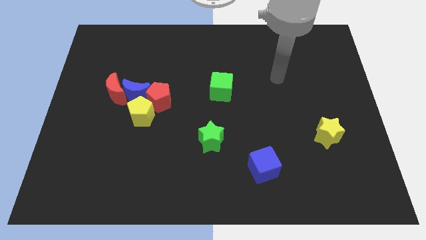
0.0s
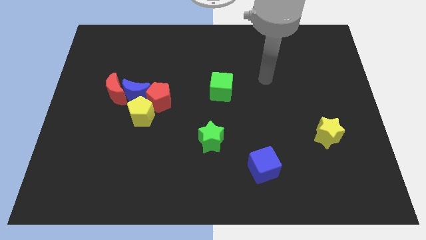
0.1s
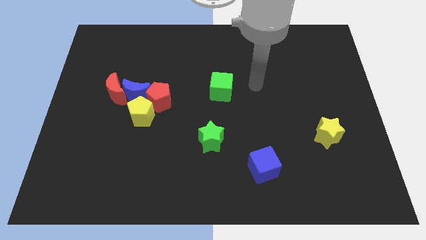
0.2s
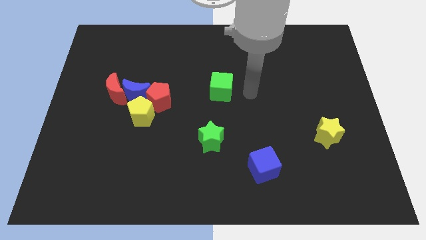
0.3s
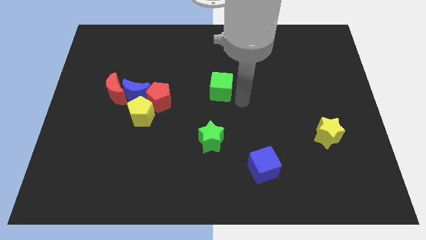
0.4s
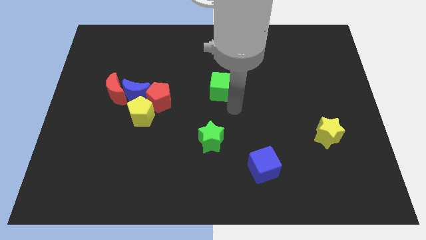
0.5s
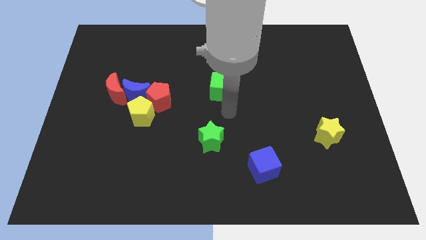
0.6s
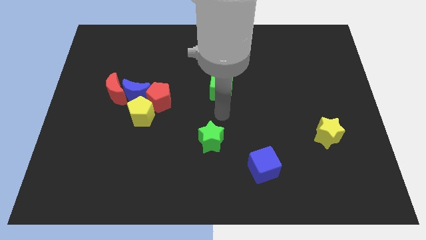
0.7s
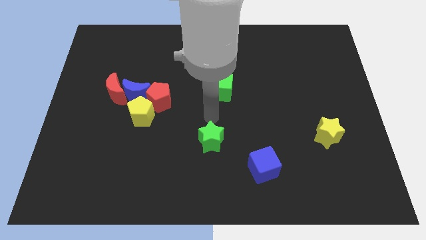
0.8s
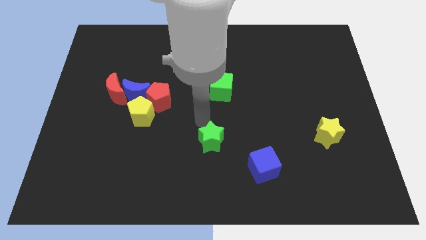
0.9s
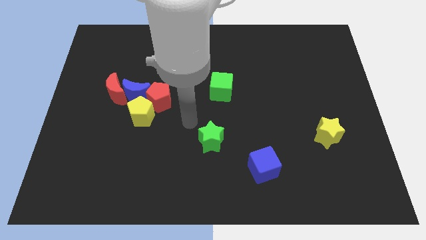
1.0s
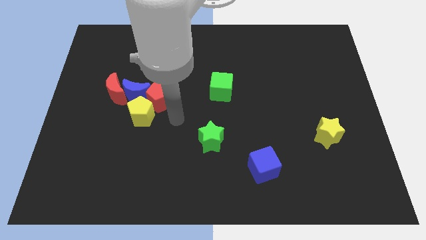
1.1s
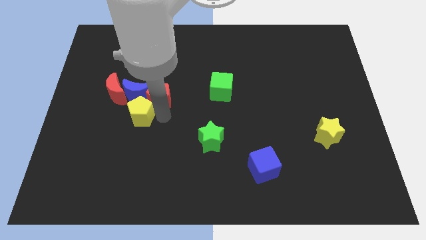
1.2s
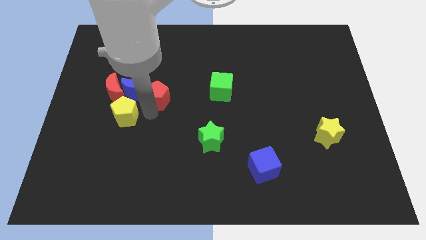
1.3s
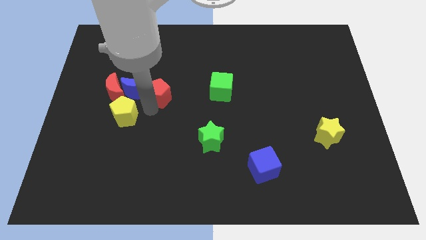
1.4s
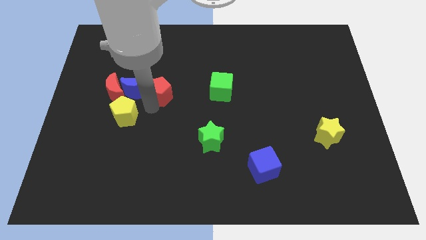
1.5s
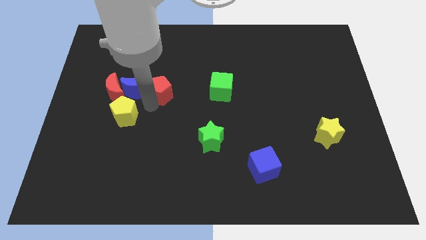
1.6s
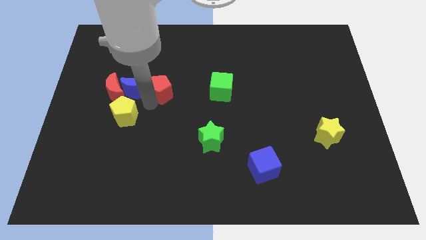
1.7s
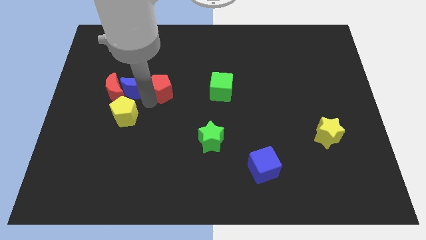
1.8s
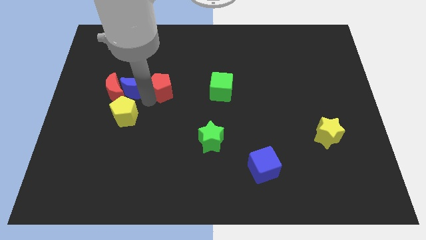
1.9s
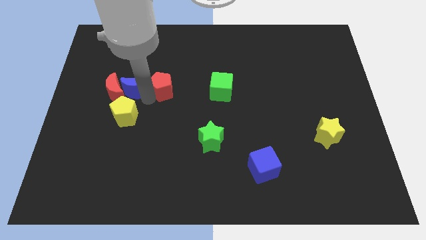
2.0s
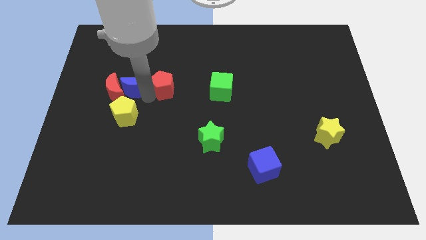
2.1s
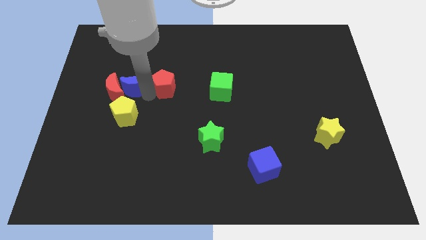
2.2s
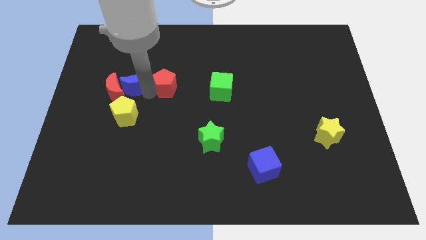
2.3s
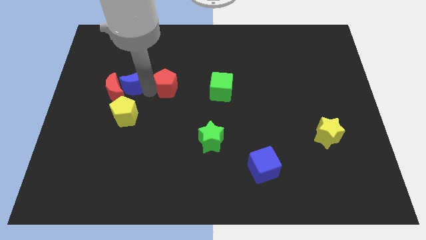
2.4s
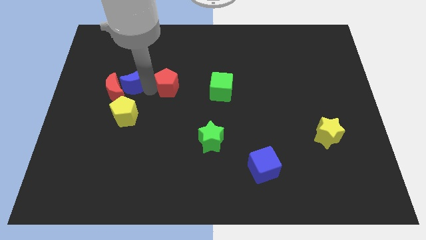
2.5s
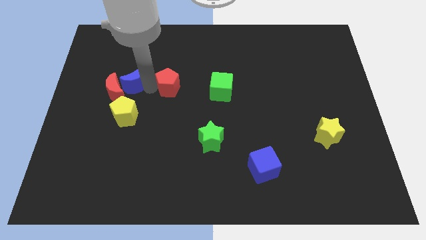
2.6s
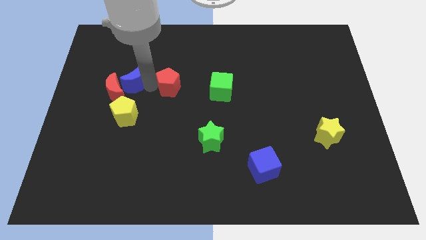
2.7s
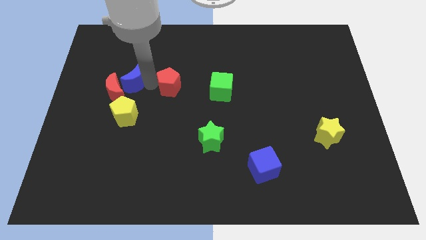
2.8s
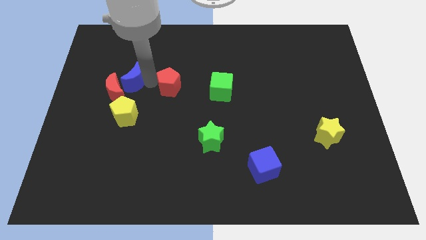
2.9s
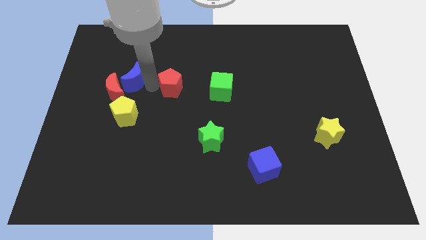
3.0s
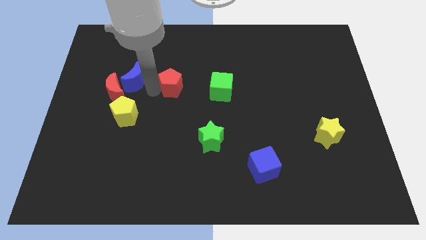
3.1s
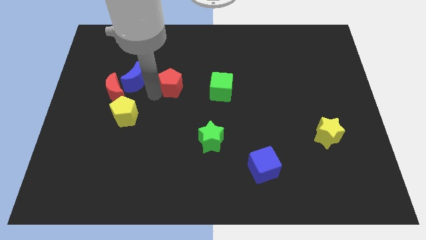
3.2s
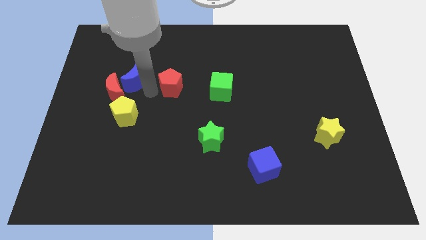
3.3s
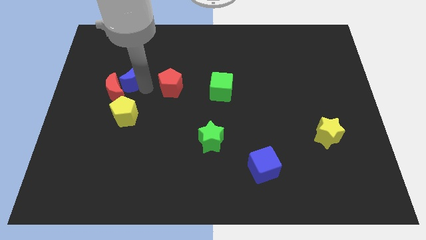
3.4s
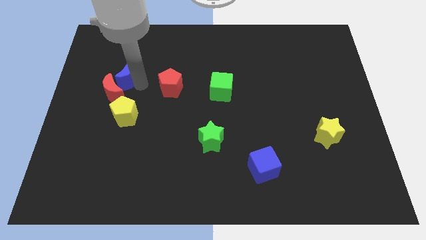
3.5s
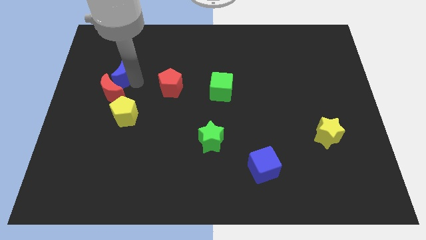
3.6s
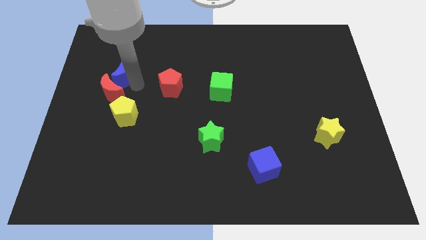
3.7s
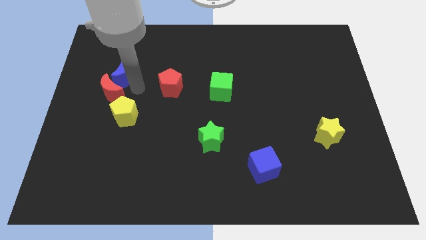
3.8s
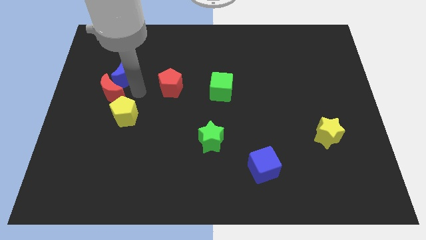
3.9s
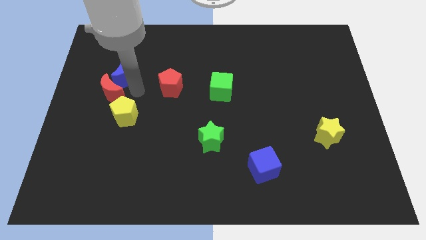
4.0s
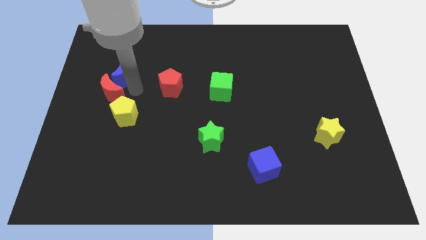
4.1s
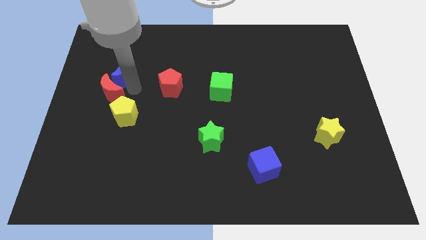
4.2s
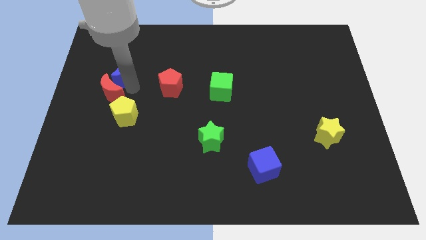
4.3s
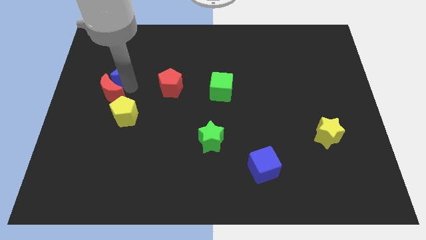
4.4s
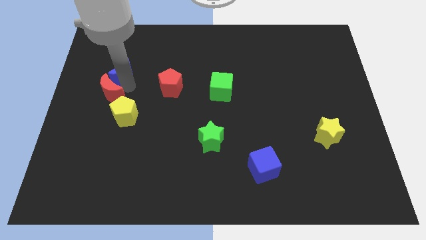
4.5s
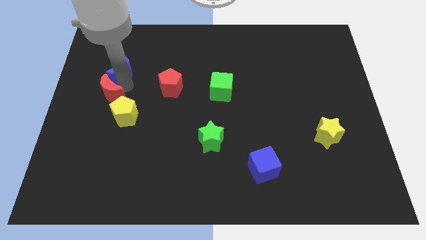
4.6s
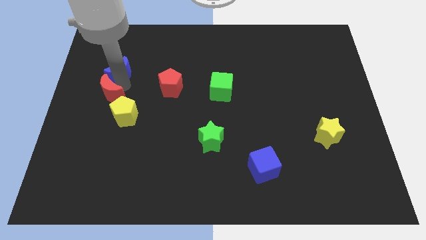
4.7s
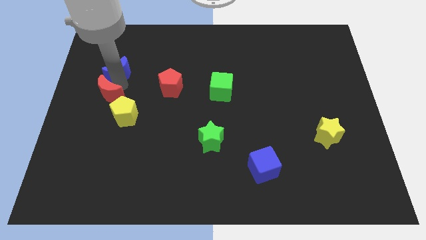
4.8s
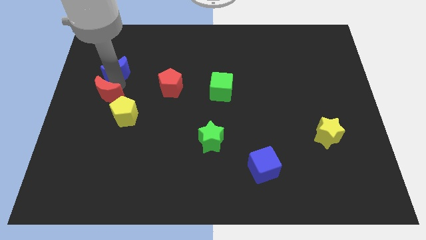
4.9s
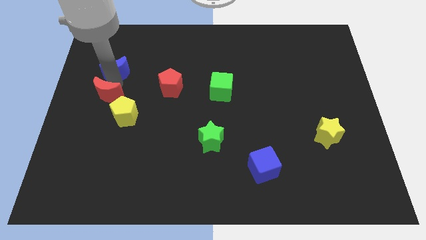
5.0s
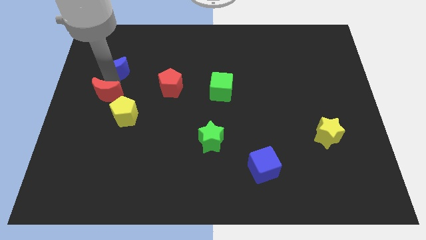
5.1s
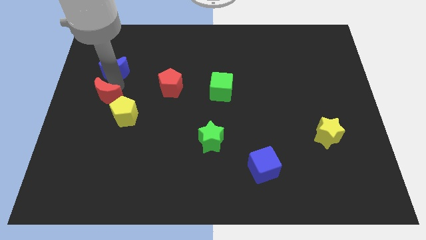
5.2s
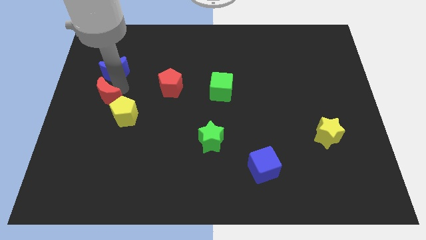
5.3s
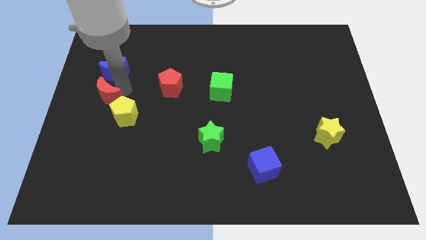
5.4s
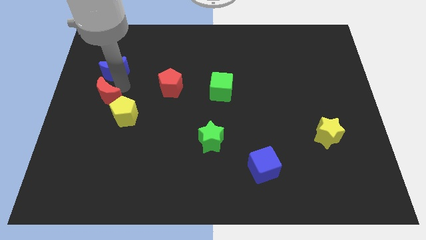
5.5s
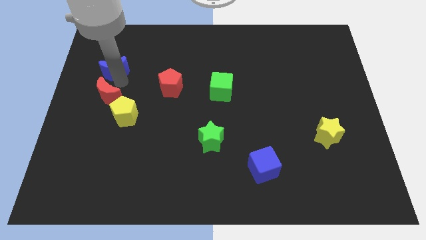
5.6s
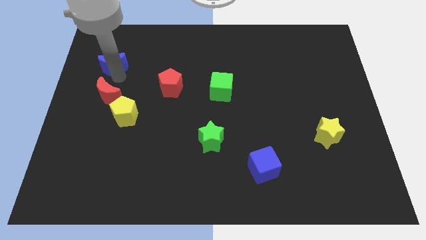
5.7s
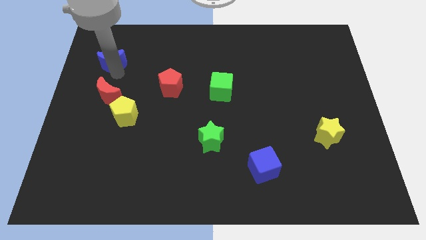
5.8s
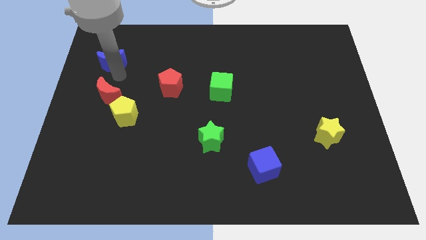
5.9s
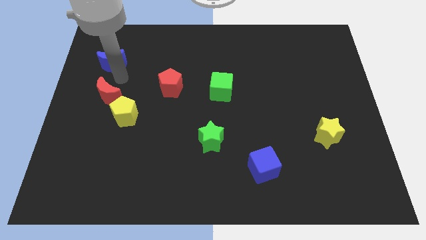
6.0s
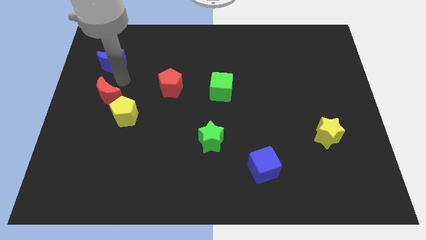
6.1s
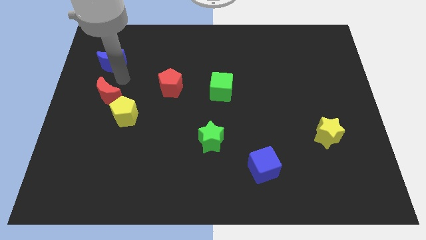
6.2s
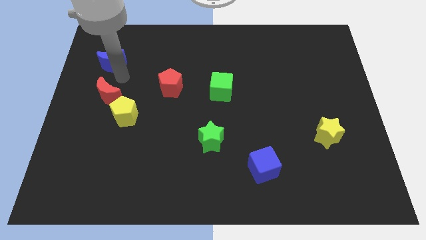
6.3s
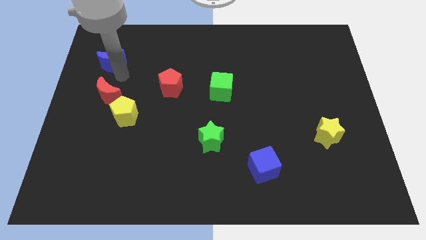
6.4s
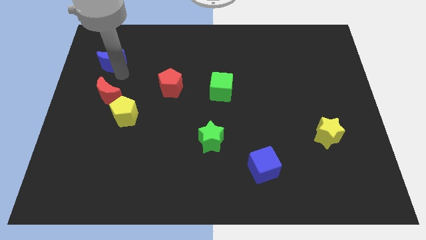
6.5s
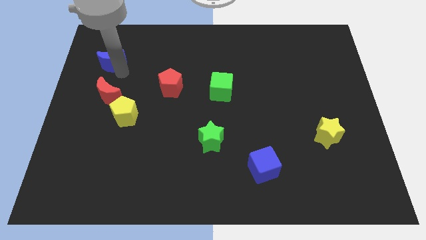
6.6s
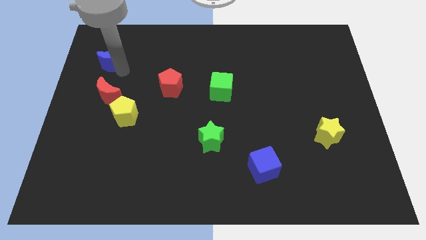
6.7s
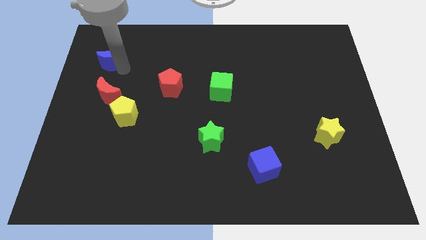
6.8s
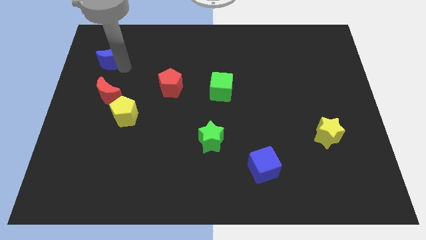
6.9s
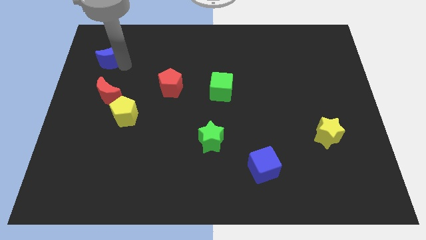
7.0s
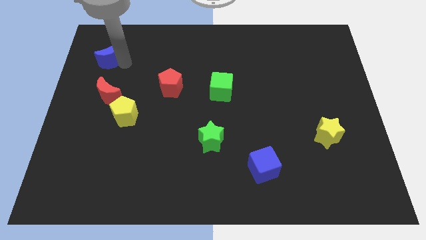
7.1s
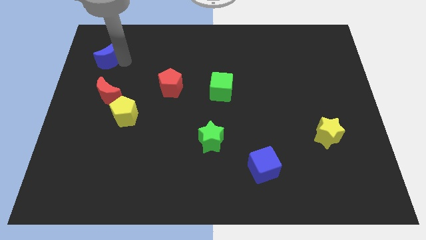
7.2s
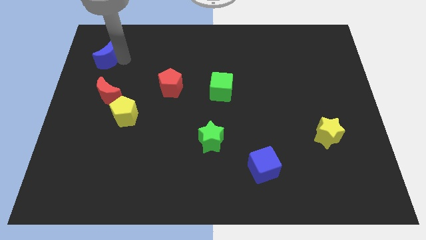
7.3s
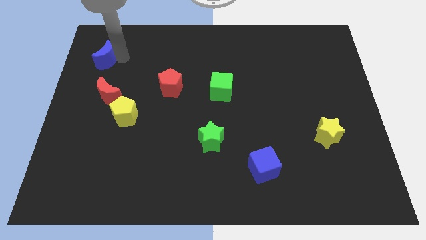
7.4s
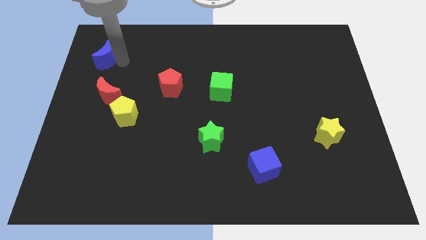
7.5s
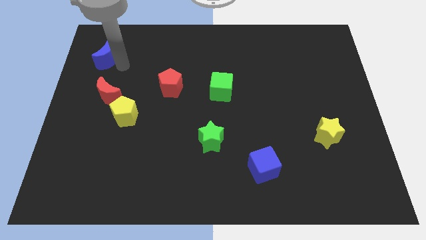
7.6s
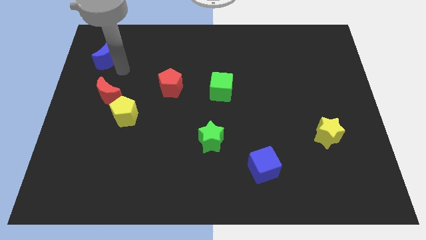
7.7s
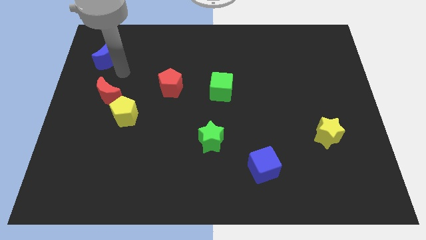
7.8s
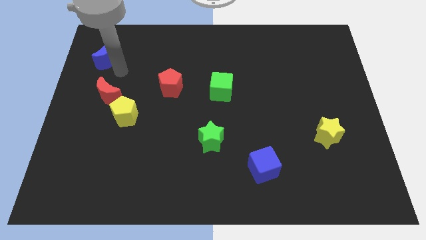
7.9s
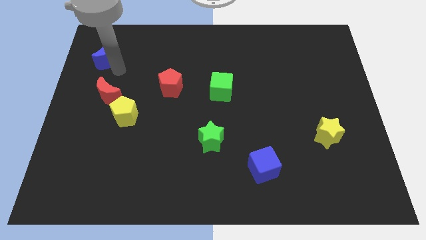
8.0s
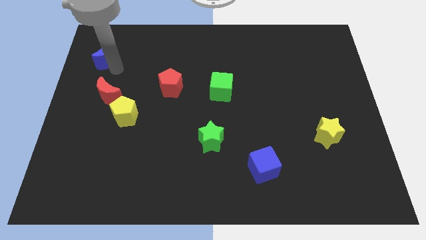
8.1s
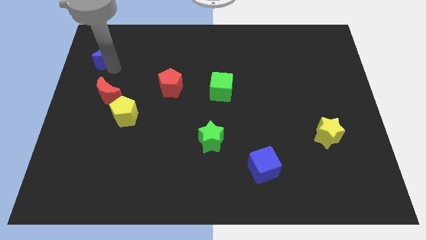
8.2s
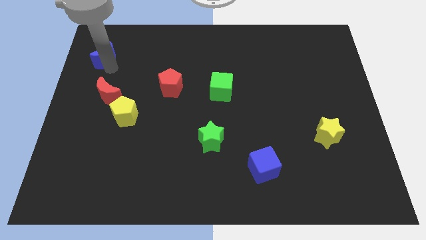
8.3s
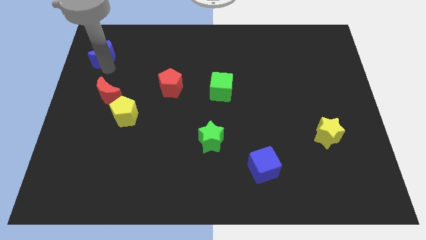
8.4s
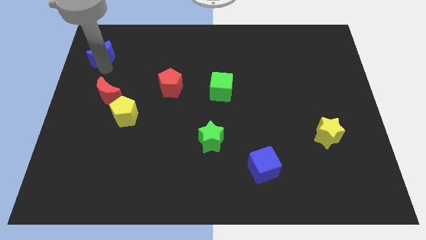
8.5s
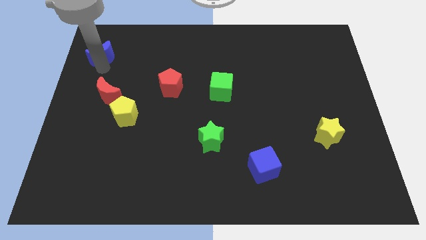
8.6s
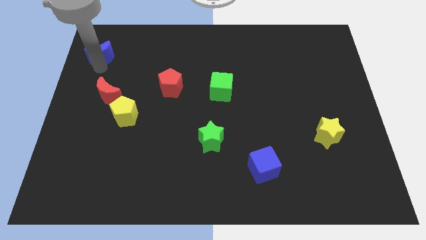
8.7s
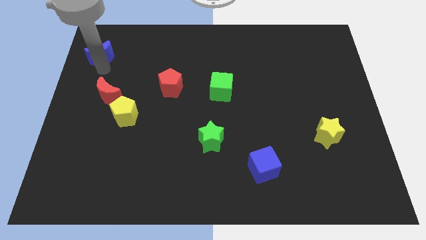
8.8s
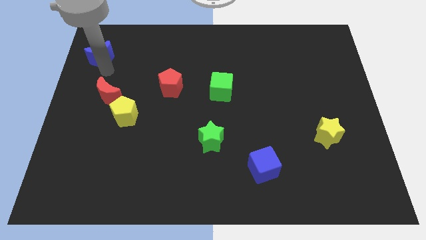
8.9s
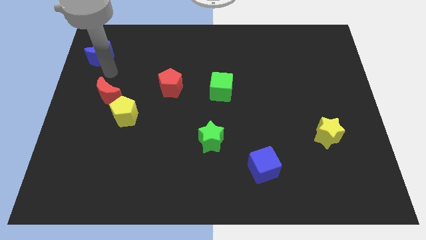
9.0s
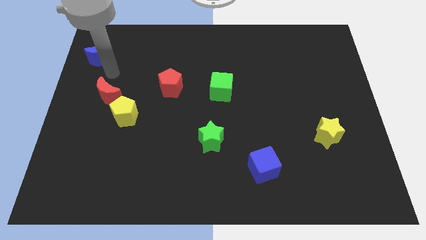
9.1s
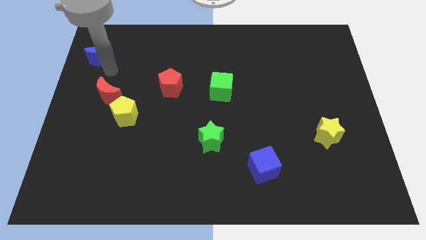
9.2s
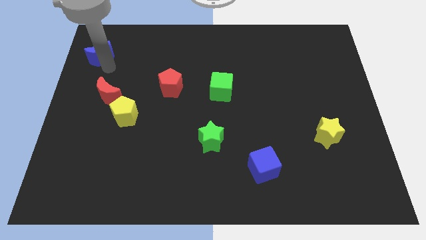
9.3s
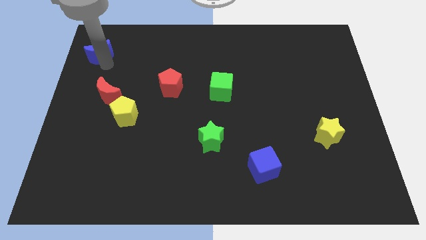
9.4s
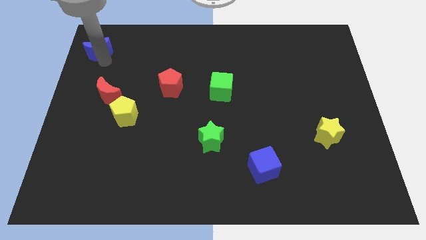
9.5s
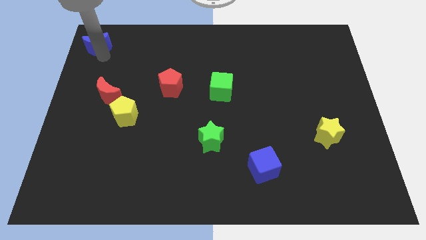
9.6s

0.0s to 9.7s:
move the blue moon to the upper left corner
